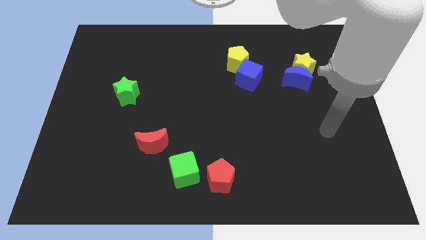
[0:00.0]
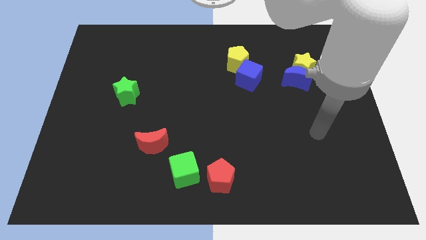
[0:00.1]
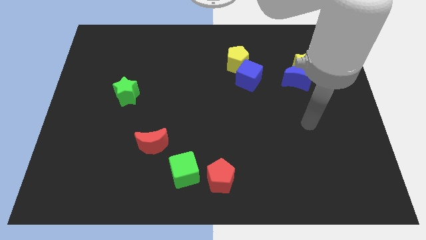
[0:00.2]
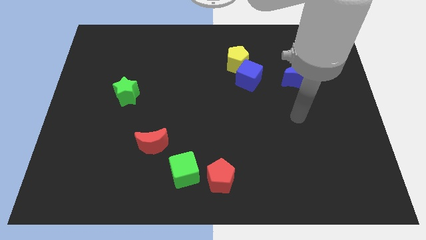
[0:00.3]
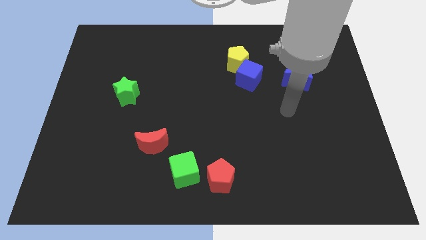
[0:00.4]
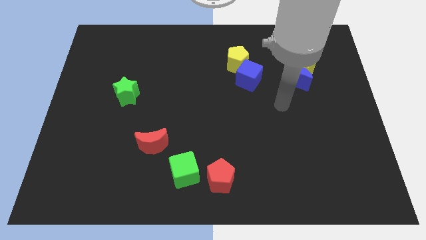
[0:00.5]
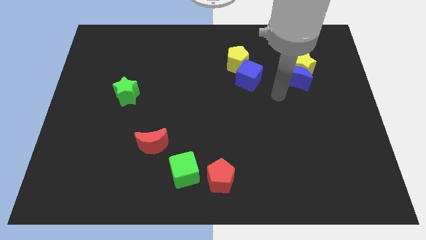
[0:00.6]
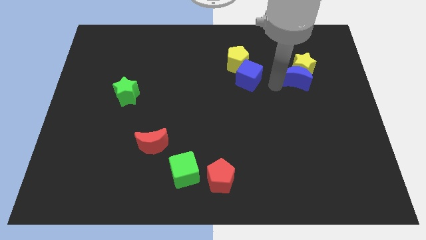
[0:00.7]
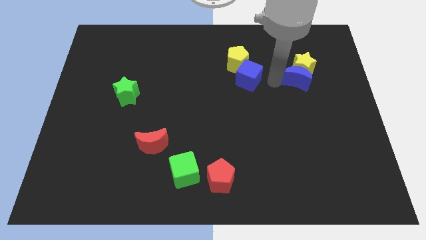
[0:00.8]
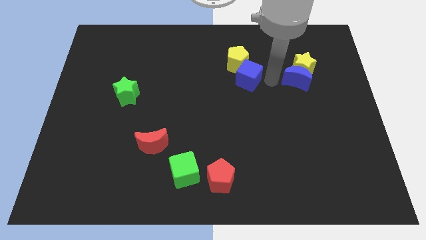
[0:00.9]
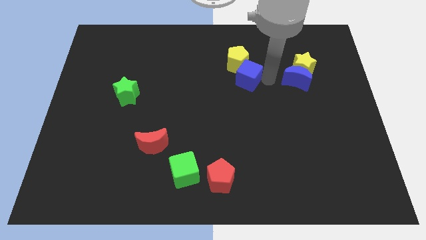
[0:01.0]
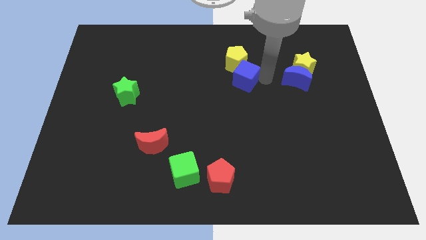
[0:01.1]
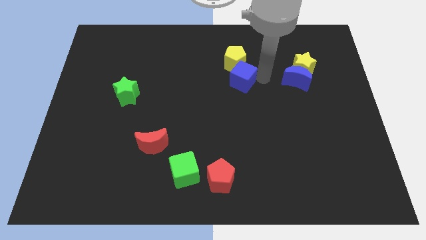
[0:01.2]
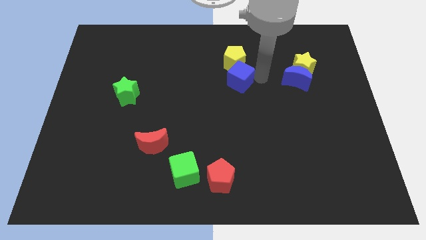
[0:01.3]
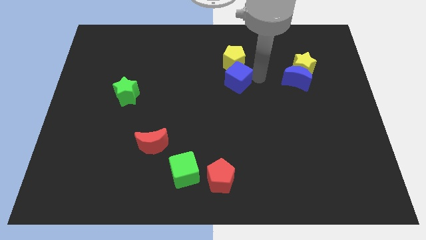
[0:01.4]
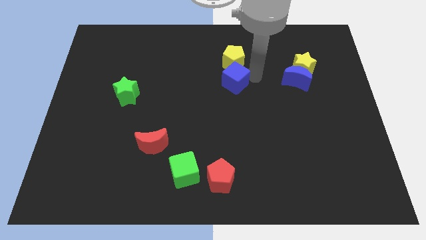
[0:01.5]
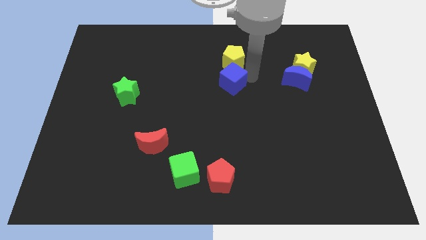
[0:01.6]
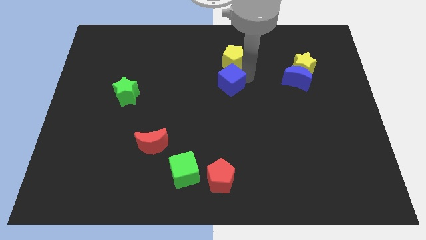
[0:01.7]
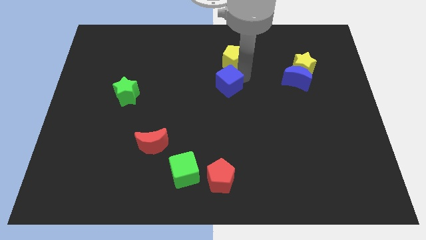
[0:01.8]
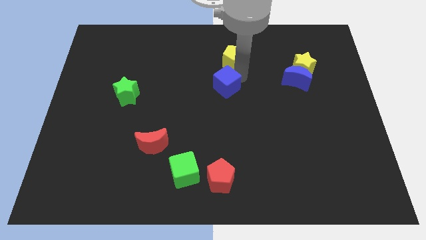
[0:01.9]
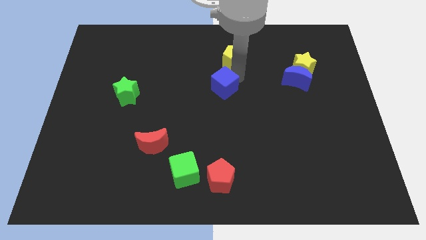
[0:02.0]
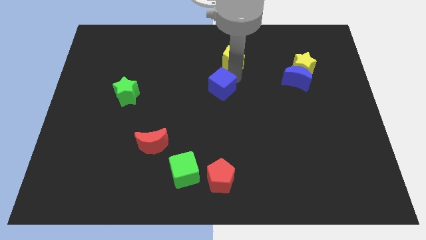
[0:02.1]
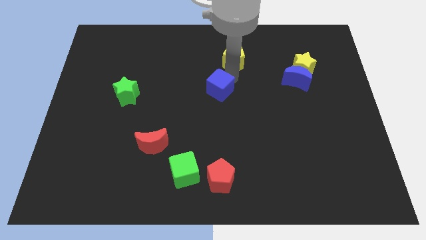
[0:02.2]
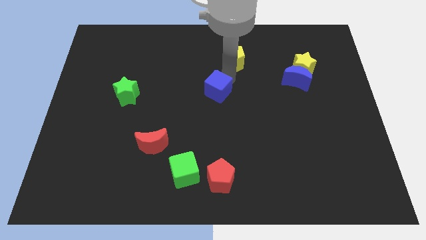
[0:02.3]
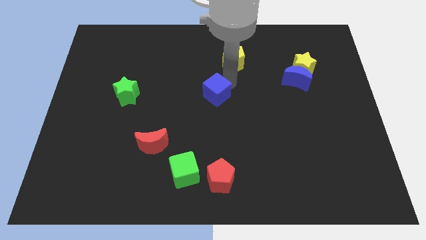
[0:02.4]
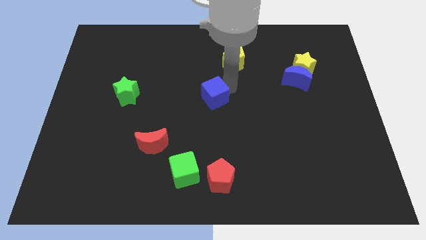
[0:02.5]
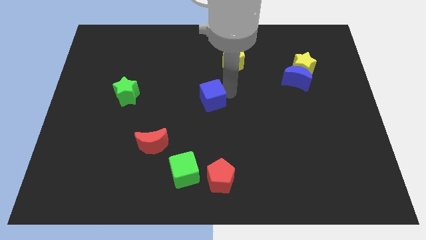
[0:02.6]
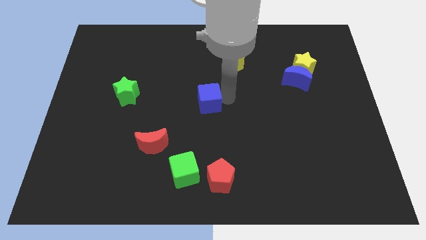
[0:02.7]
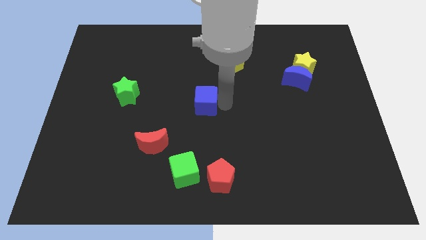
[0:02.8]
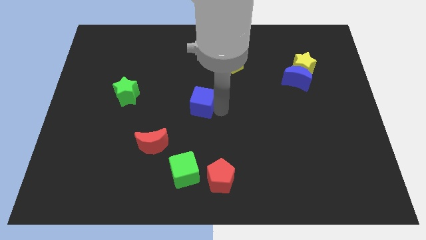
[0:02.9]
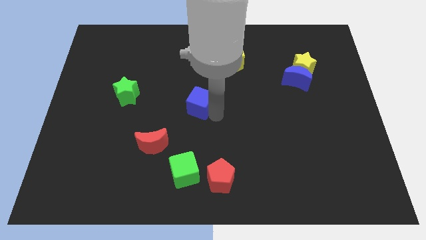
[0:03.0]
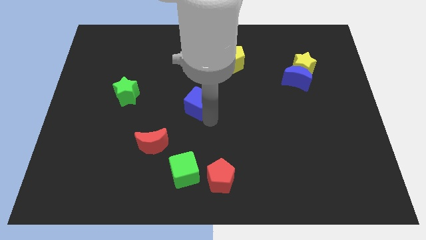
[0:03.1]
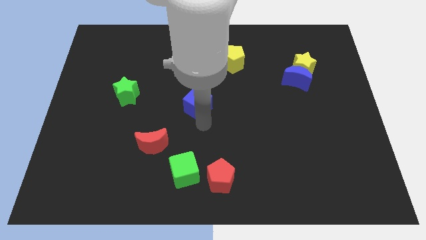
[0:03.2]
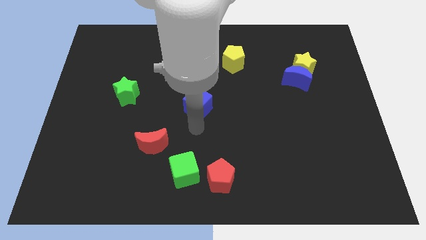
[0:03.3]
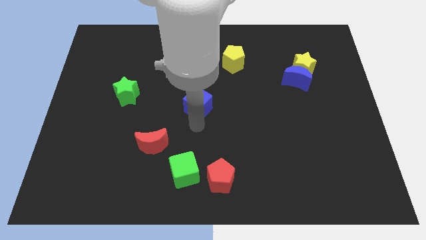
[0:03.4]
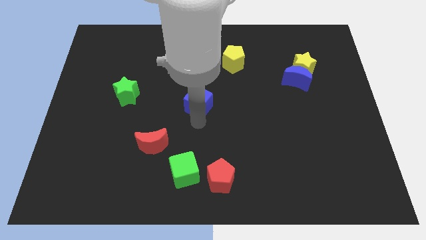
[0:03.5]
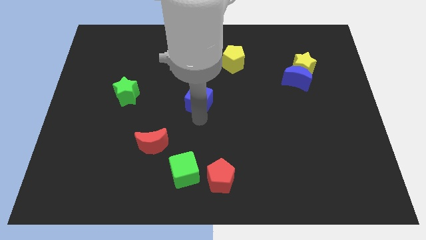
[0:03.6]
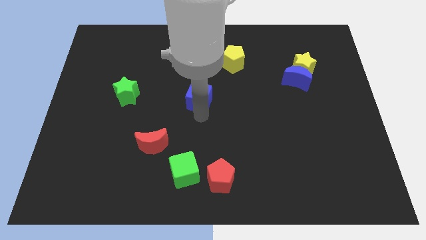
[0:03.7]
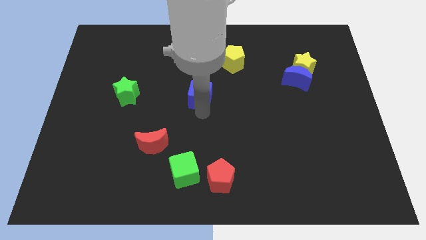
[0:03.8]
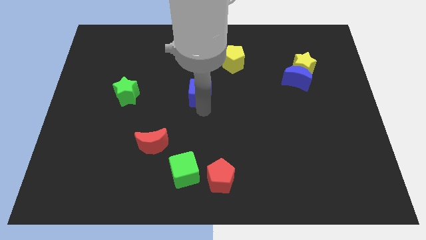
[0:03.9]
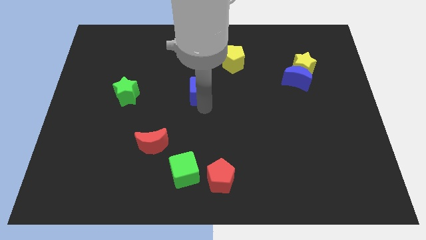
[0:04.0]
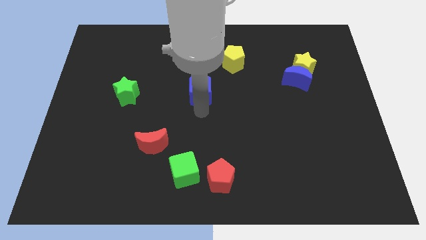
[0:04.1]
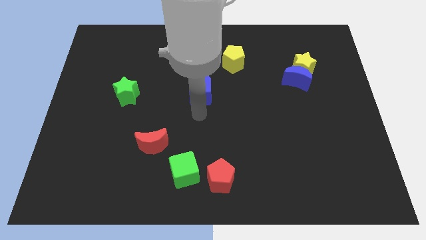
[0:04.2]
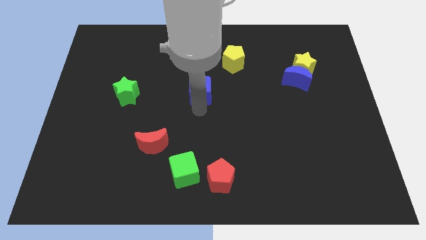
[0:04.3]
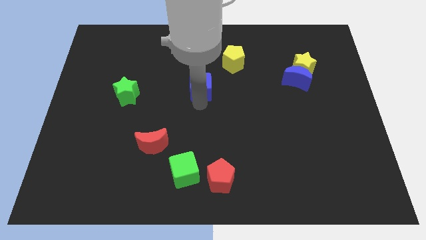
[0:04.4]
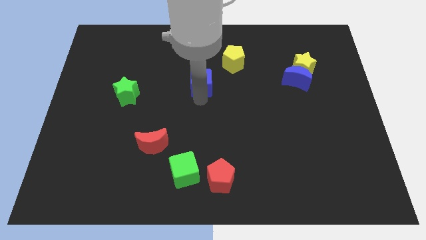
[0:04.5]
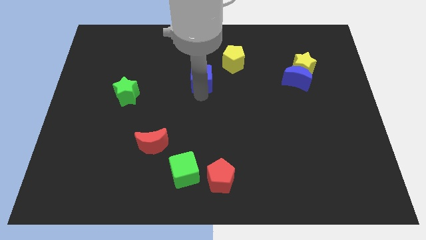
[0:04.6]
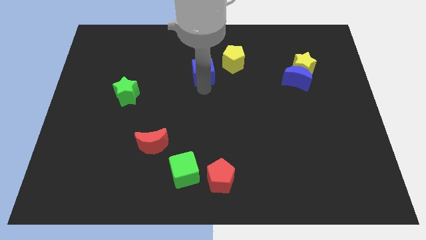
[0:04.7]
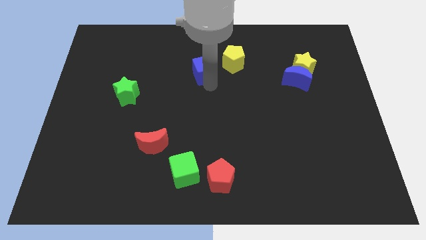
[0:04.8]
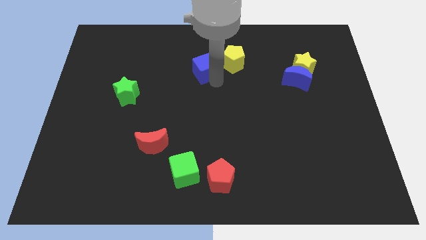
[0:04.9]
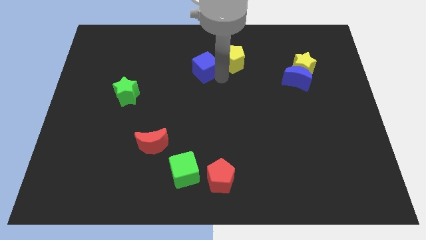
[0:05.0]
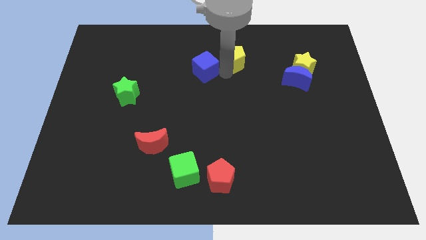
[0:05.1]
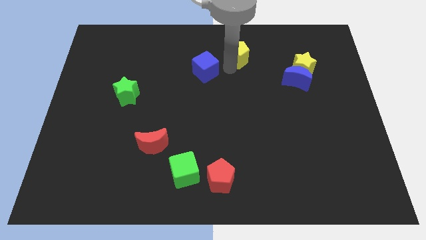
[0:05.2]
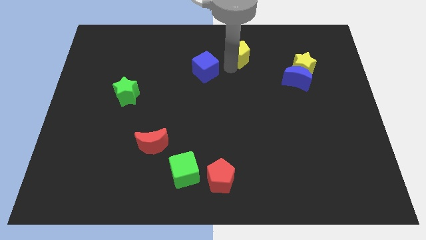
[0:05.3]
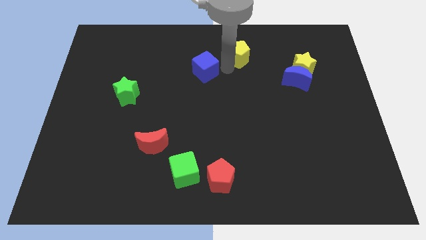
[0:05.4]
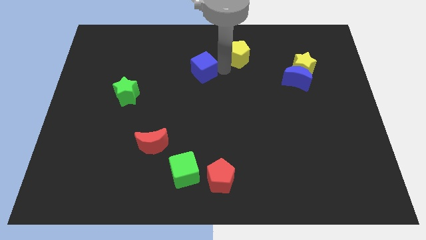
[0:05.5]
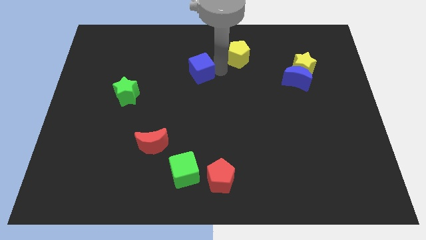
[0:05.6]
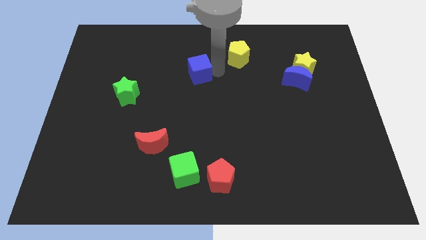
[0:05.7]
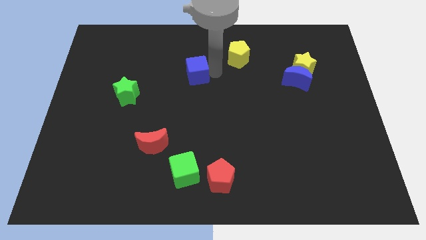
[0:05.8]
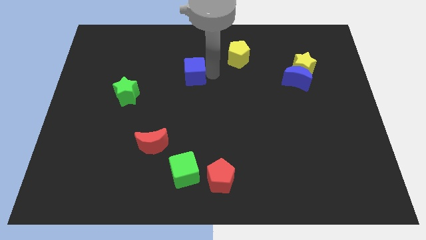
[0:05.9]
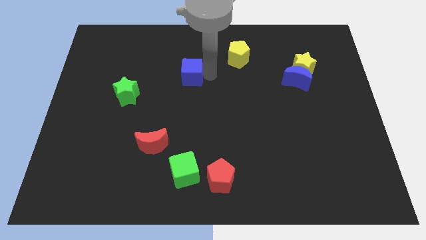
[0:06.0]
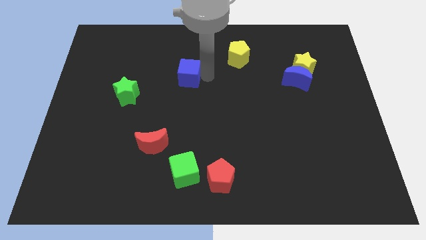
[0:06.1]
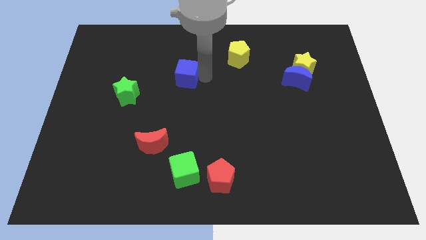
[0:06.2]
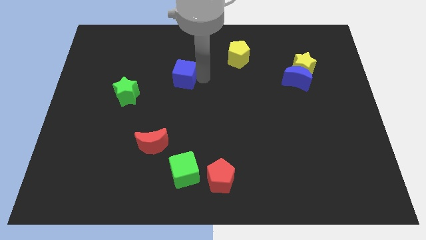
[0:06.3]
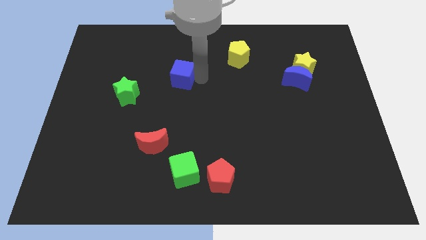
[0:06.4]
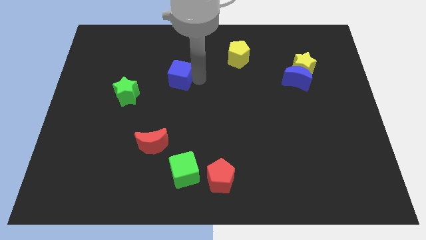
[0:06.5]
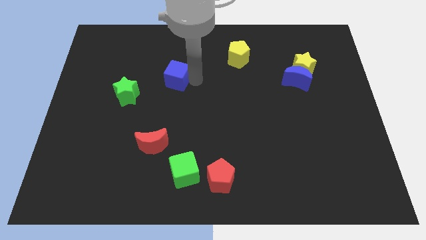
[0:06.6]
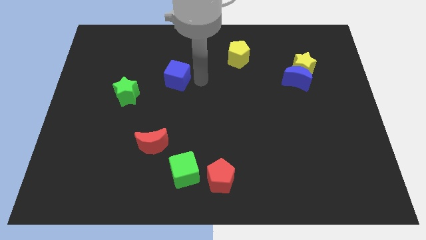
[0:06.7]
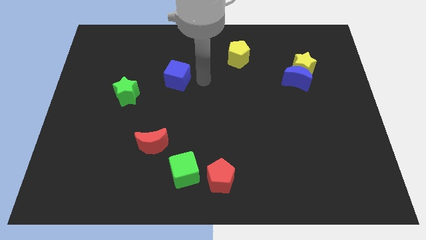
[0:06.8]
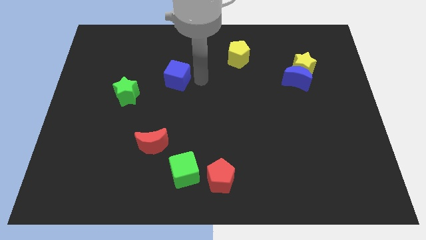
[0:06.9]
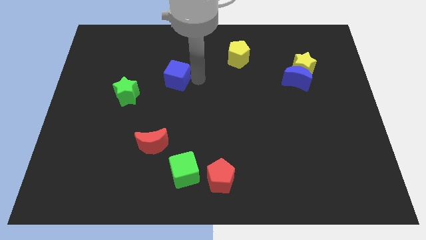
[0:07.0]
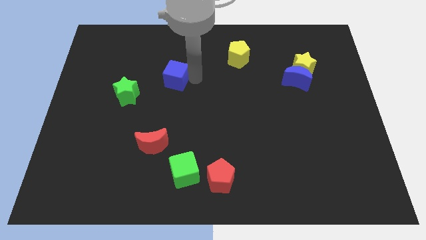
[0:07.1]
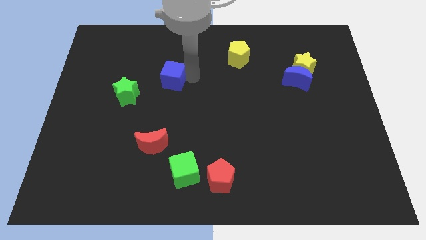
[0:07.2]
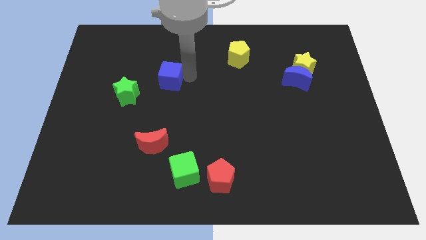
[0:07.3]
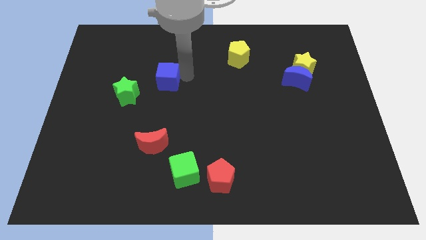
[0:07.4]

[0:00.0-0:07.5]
move the blue cube to the left
